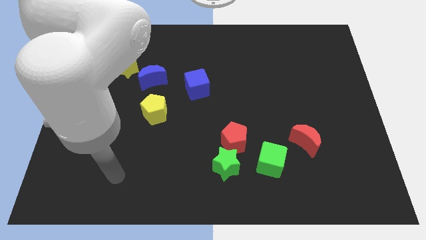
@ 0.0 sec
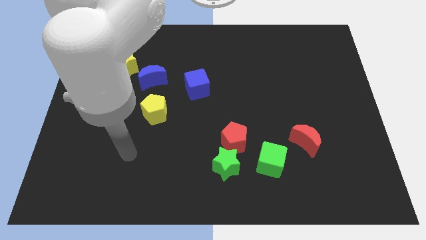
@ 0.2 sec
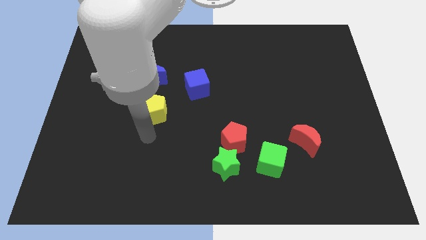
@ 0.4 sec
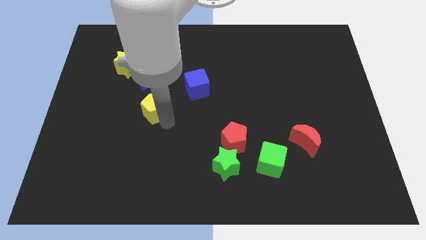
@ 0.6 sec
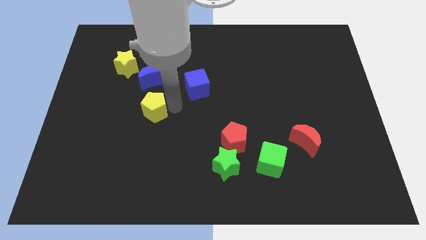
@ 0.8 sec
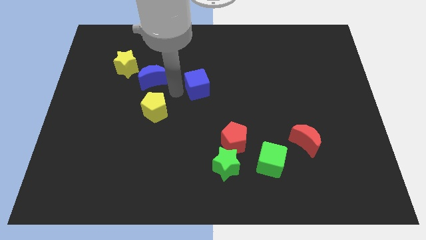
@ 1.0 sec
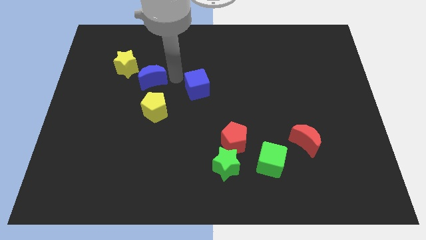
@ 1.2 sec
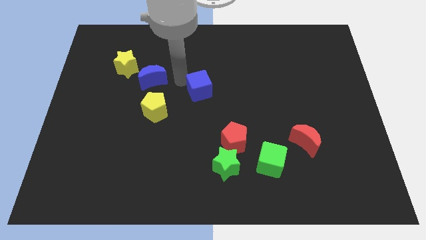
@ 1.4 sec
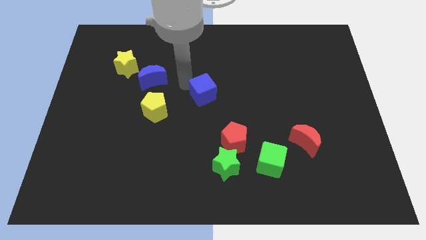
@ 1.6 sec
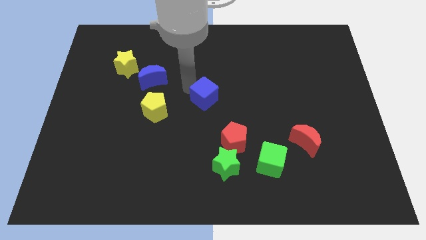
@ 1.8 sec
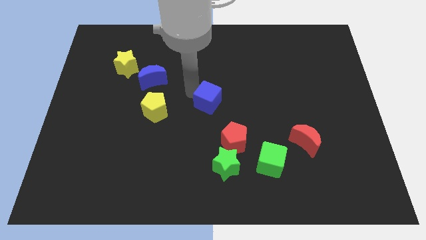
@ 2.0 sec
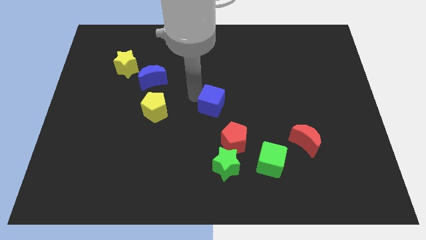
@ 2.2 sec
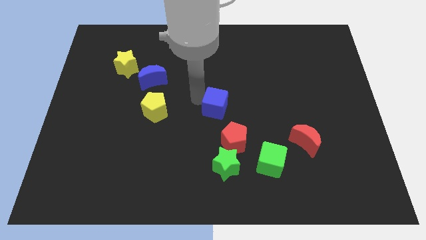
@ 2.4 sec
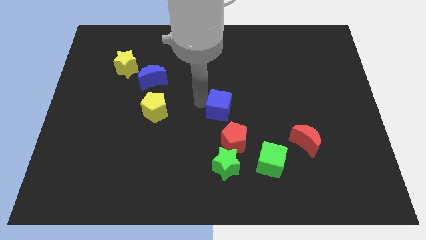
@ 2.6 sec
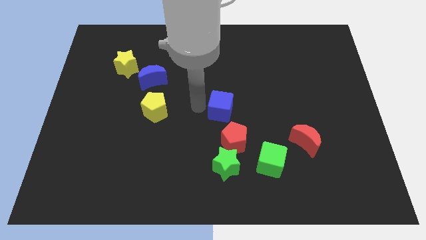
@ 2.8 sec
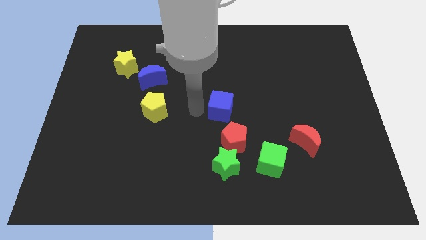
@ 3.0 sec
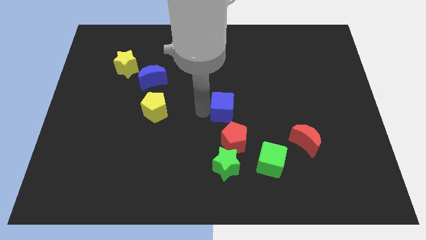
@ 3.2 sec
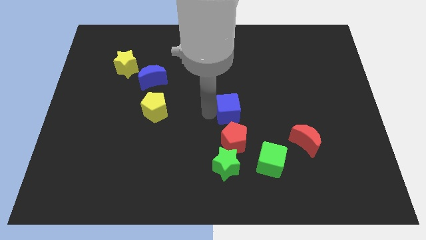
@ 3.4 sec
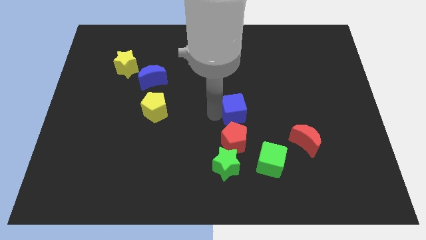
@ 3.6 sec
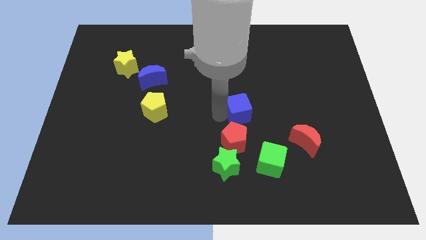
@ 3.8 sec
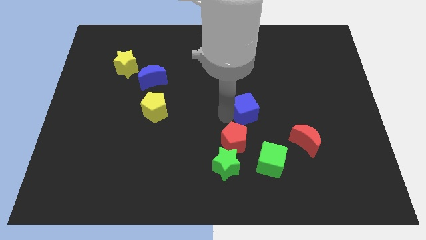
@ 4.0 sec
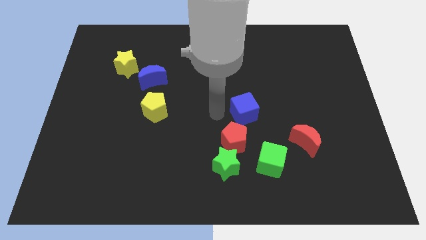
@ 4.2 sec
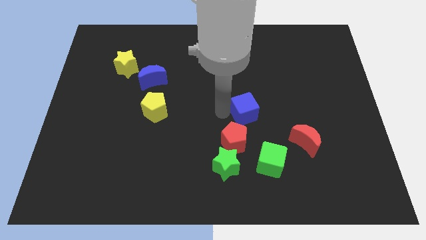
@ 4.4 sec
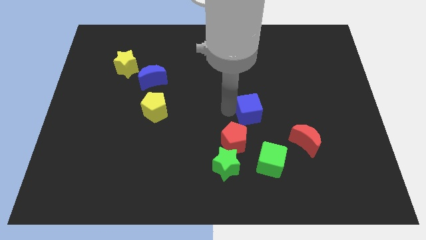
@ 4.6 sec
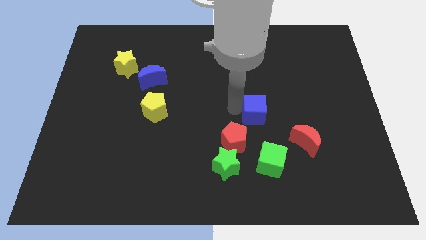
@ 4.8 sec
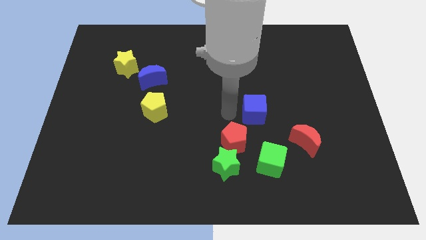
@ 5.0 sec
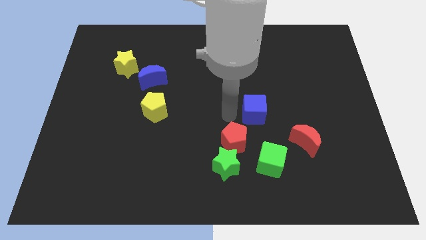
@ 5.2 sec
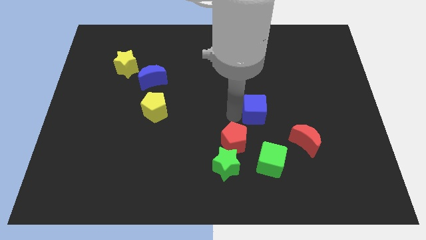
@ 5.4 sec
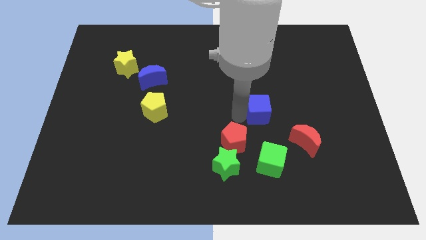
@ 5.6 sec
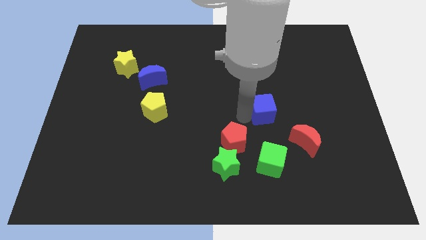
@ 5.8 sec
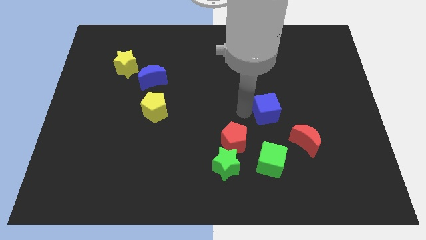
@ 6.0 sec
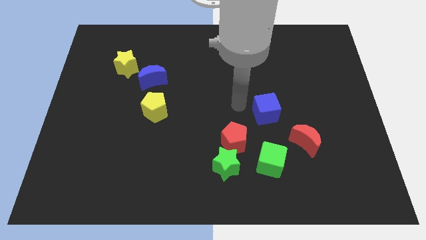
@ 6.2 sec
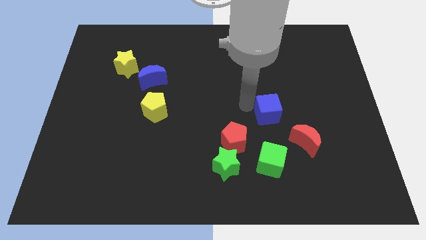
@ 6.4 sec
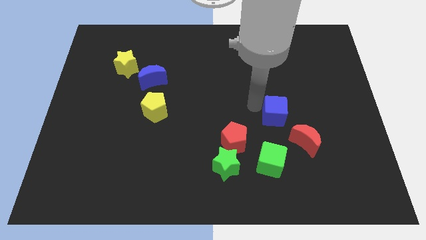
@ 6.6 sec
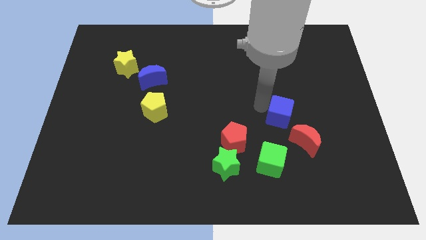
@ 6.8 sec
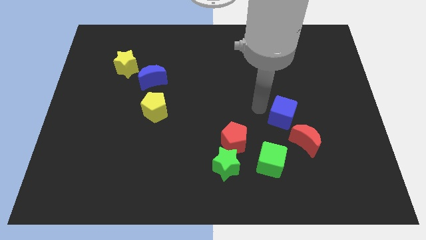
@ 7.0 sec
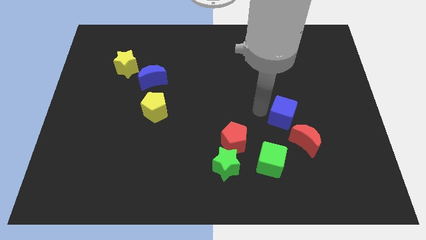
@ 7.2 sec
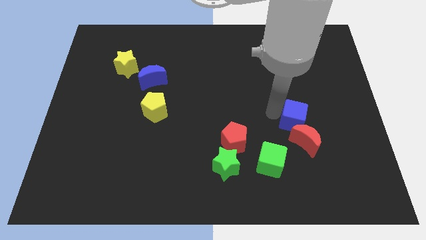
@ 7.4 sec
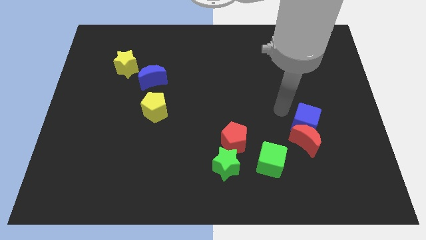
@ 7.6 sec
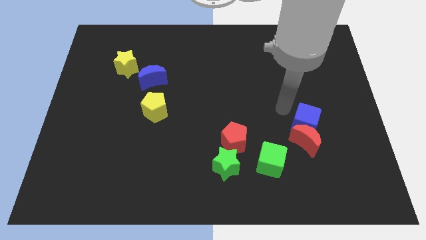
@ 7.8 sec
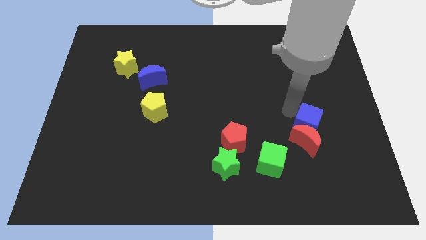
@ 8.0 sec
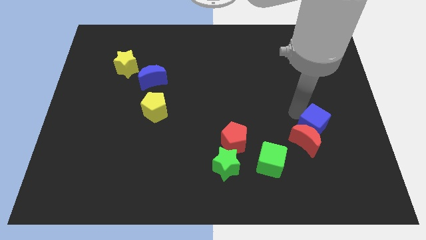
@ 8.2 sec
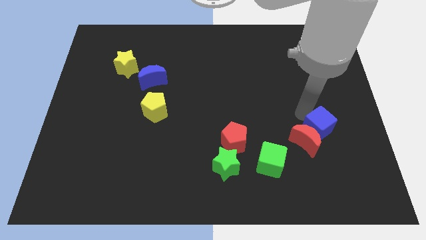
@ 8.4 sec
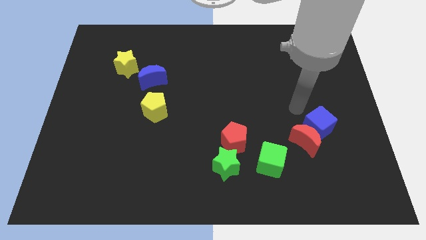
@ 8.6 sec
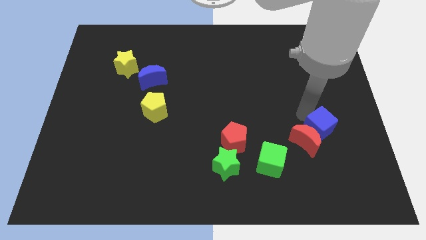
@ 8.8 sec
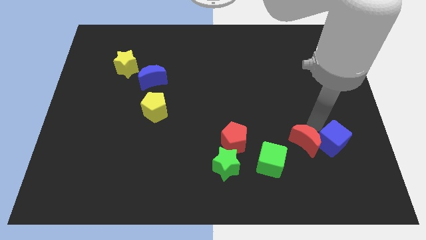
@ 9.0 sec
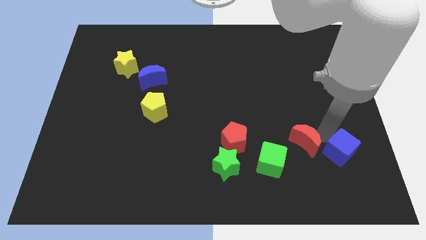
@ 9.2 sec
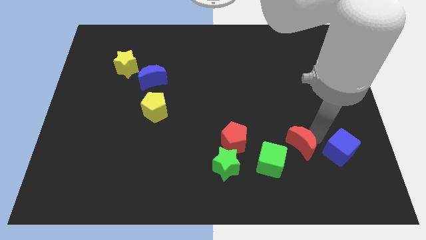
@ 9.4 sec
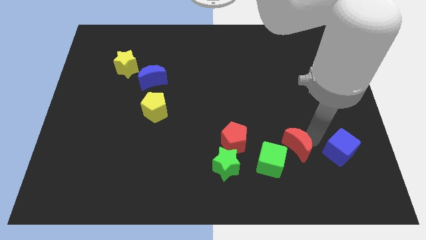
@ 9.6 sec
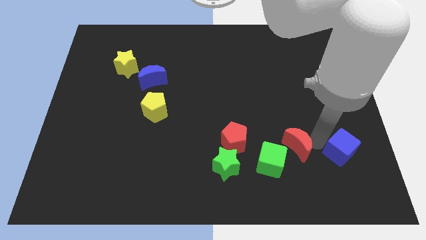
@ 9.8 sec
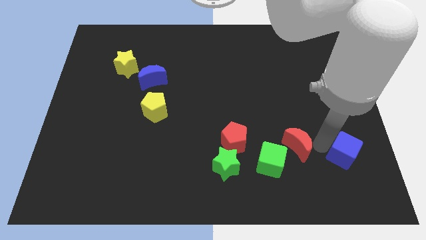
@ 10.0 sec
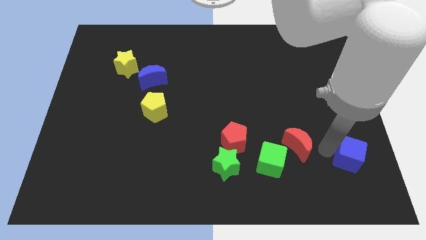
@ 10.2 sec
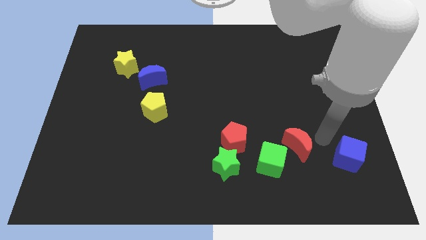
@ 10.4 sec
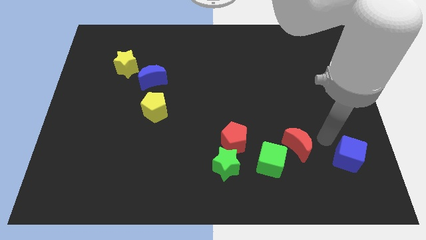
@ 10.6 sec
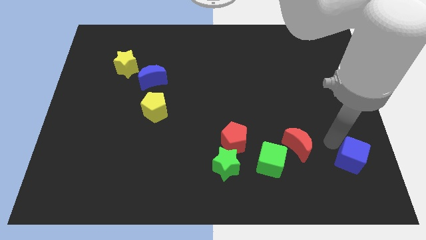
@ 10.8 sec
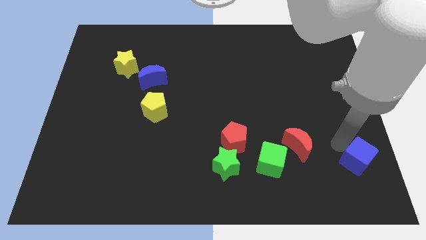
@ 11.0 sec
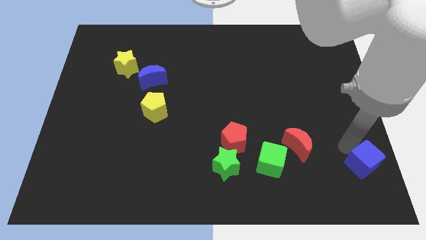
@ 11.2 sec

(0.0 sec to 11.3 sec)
move the blue cube to the bottom right of the board

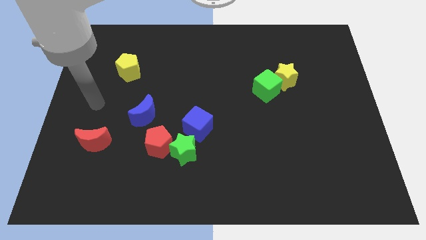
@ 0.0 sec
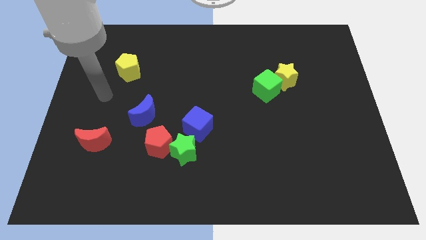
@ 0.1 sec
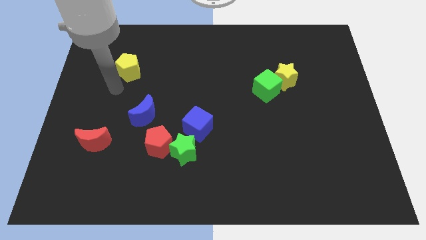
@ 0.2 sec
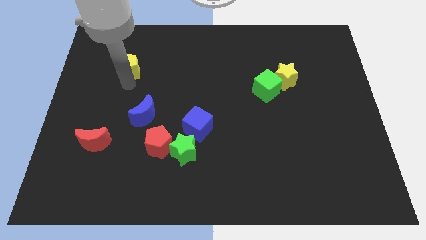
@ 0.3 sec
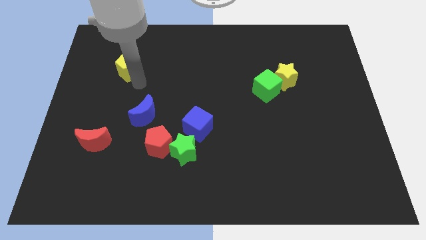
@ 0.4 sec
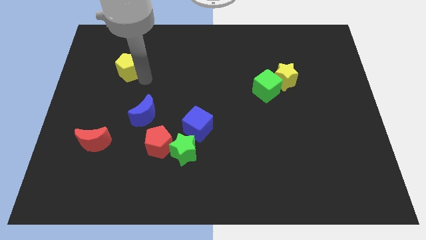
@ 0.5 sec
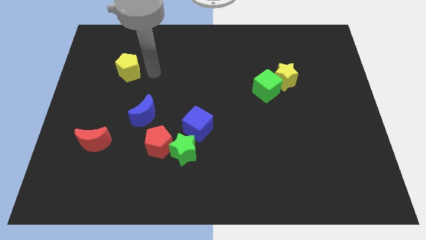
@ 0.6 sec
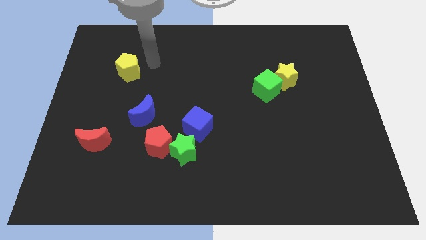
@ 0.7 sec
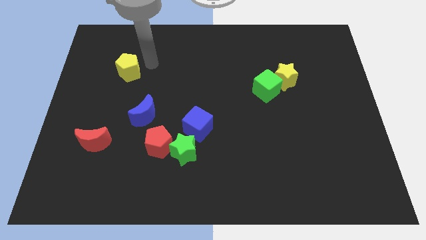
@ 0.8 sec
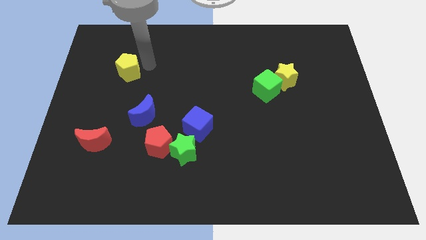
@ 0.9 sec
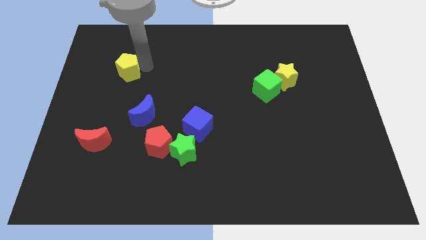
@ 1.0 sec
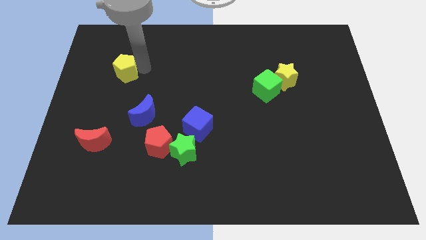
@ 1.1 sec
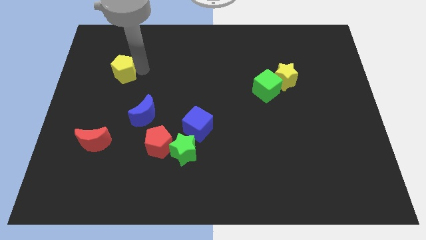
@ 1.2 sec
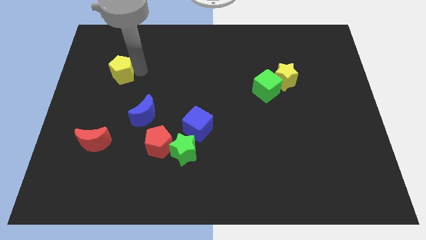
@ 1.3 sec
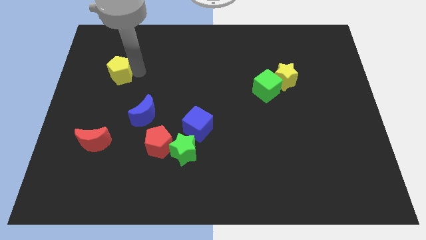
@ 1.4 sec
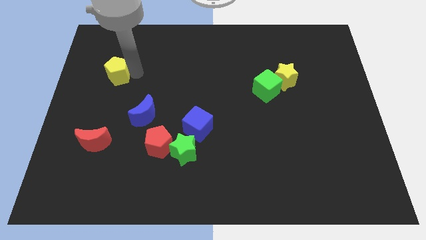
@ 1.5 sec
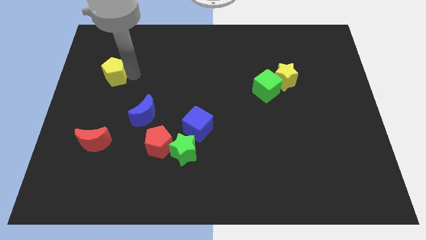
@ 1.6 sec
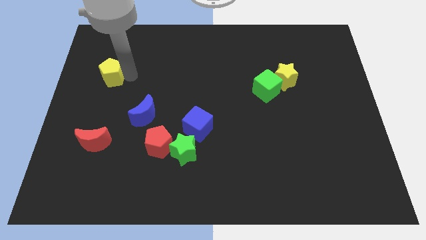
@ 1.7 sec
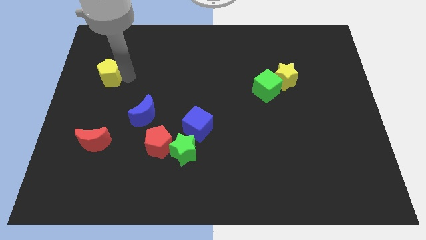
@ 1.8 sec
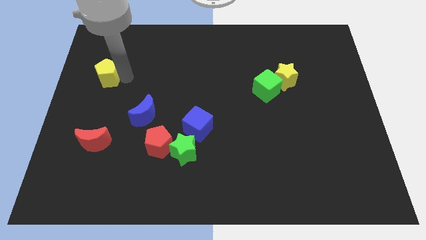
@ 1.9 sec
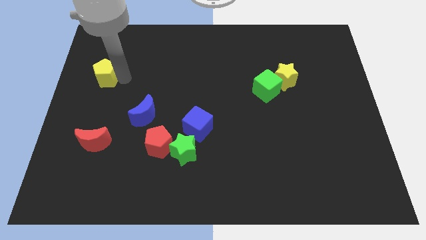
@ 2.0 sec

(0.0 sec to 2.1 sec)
push the yellow pentagon to the left side
